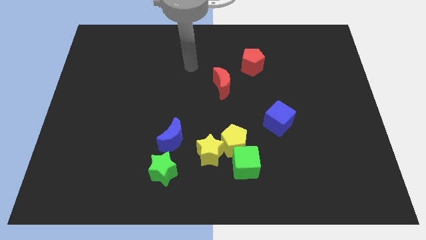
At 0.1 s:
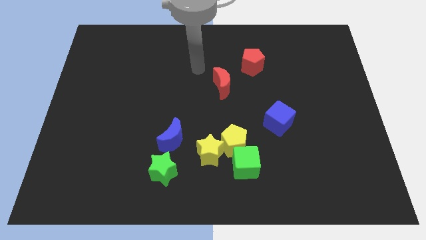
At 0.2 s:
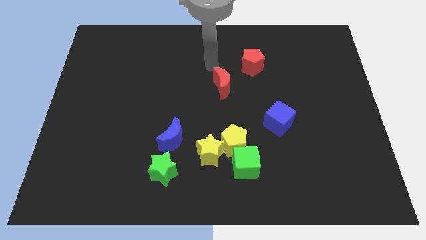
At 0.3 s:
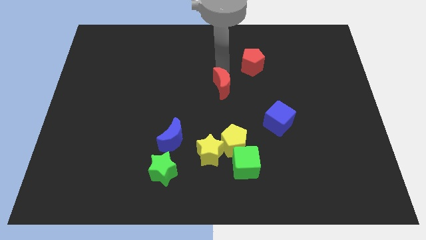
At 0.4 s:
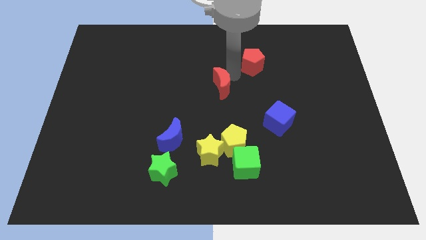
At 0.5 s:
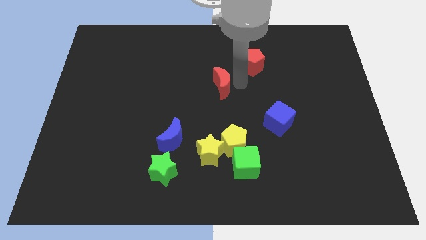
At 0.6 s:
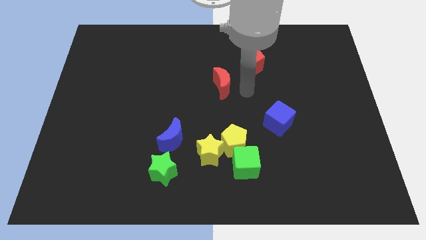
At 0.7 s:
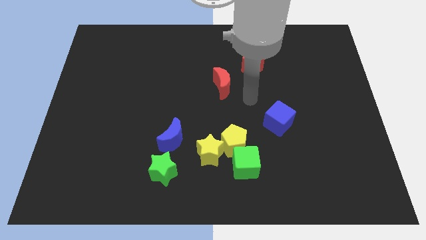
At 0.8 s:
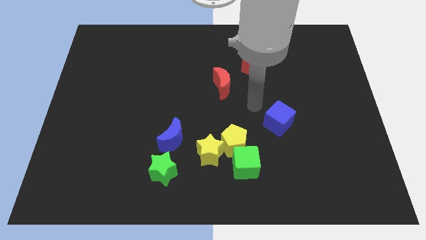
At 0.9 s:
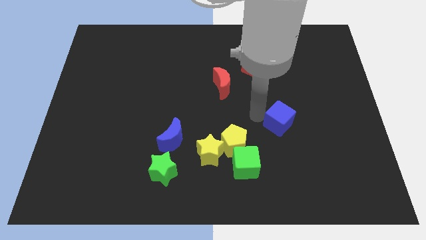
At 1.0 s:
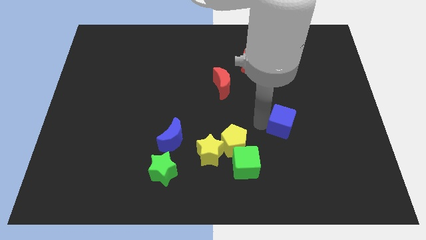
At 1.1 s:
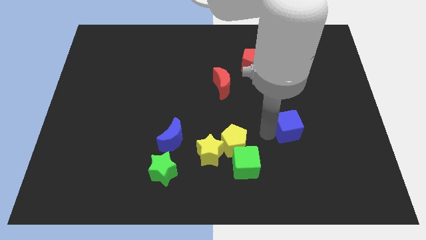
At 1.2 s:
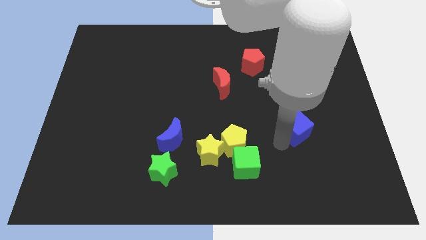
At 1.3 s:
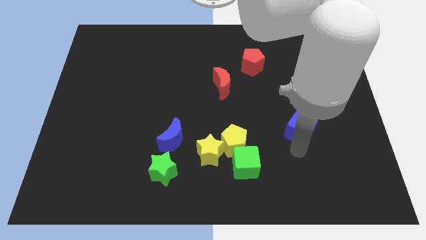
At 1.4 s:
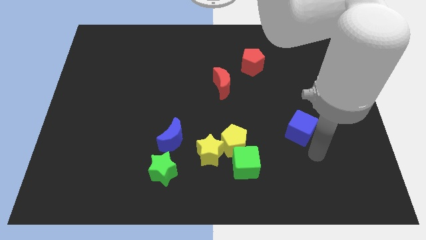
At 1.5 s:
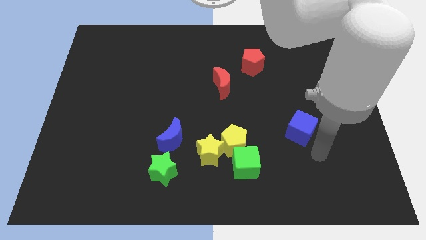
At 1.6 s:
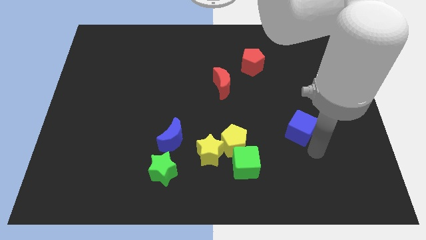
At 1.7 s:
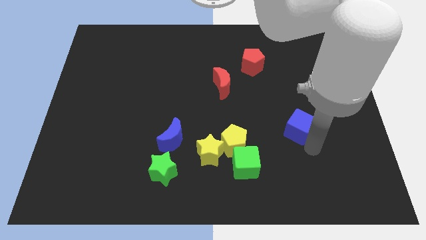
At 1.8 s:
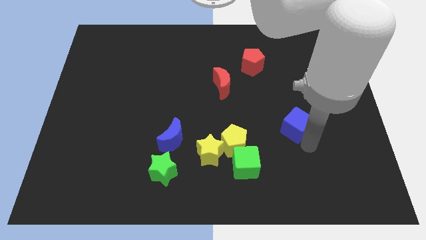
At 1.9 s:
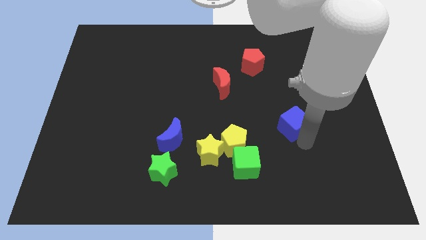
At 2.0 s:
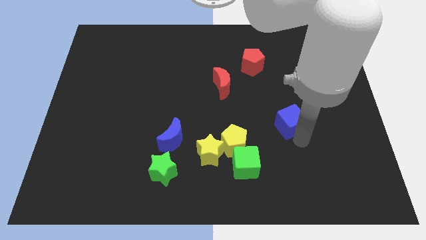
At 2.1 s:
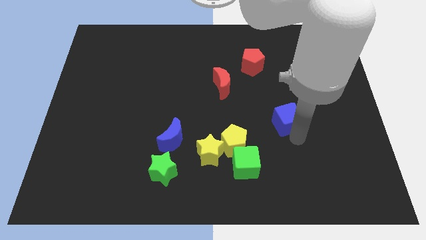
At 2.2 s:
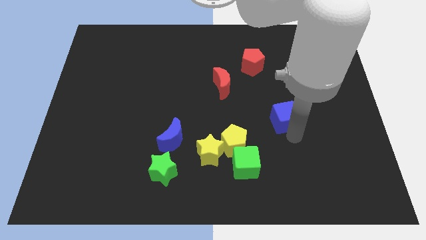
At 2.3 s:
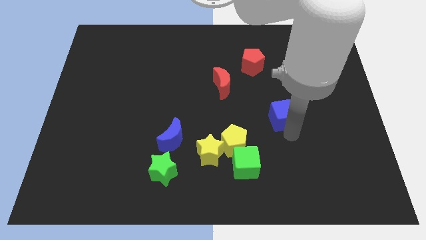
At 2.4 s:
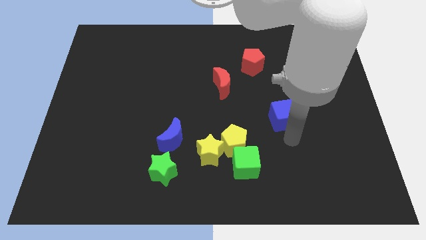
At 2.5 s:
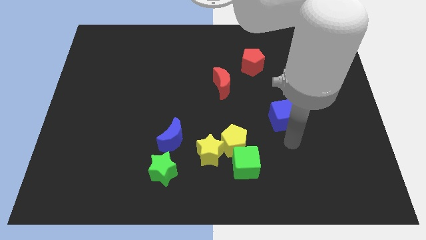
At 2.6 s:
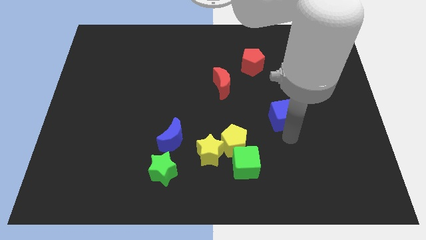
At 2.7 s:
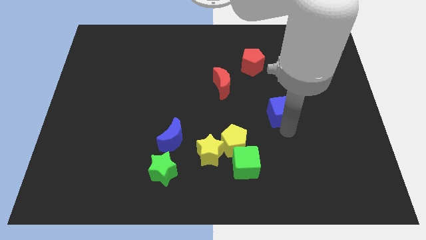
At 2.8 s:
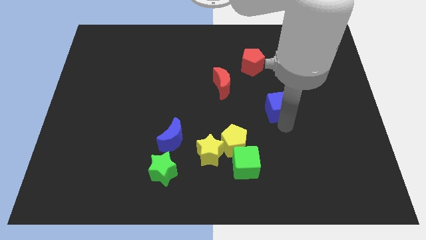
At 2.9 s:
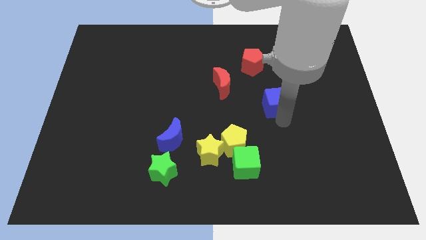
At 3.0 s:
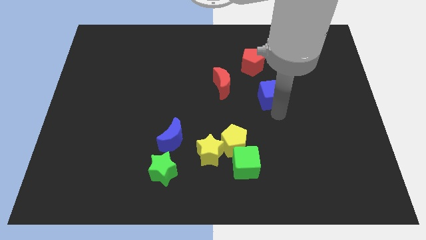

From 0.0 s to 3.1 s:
move the blue cube a little upwards

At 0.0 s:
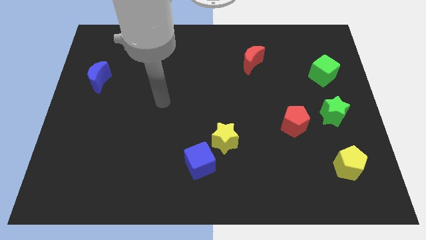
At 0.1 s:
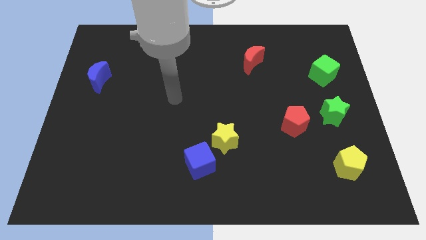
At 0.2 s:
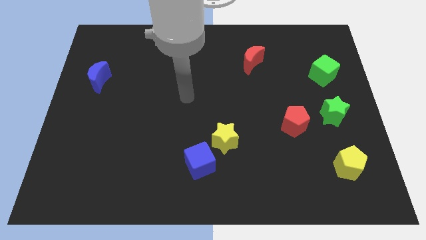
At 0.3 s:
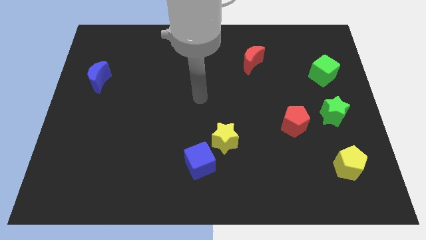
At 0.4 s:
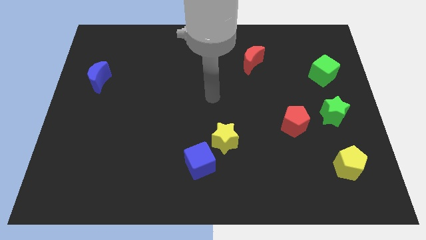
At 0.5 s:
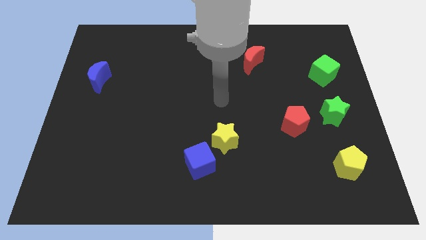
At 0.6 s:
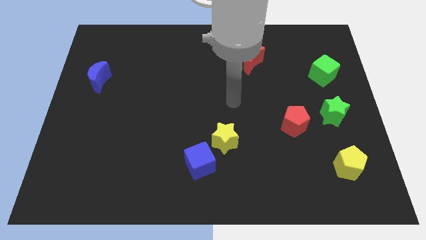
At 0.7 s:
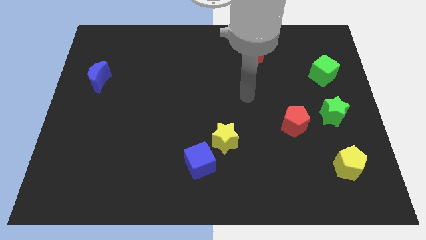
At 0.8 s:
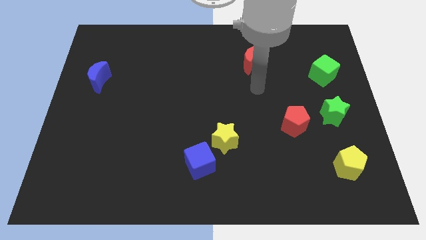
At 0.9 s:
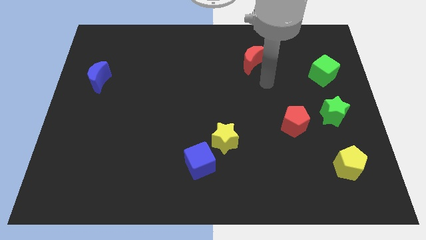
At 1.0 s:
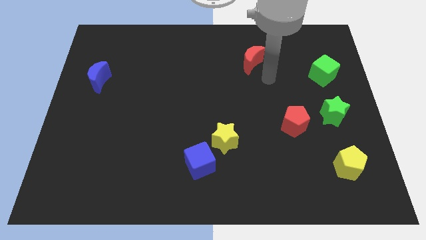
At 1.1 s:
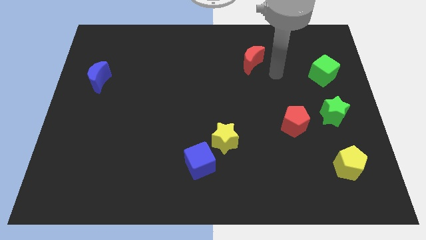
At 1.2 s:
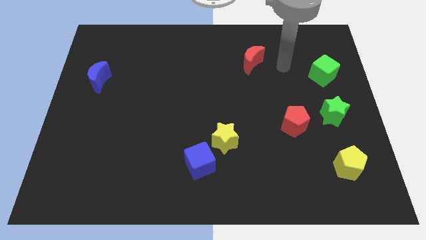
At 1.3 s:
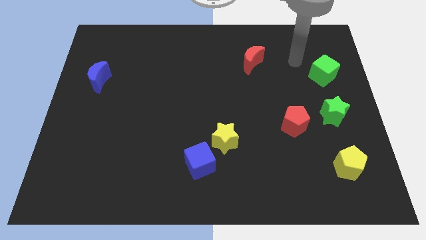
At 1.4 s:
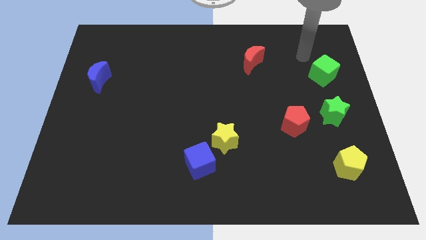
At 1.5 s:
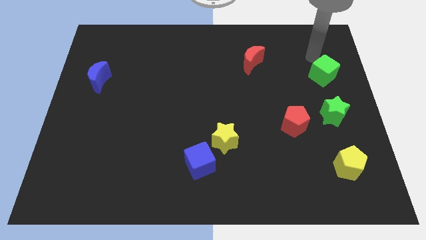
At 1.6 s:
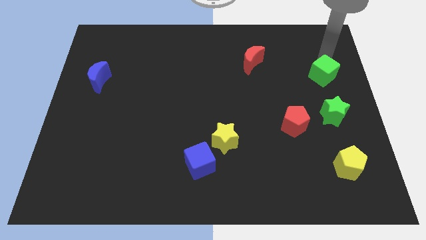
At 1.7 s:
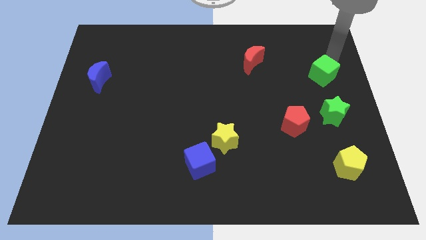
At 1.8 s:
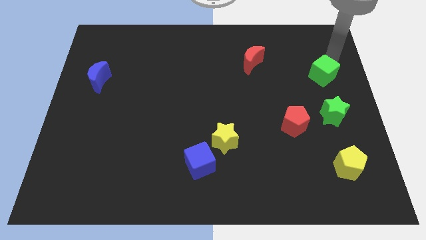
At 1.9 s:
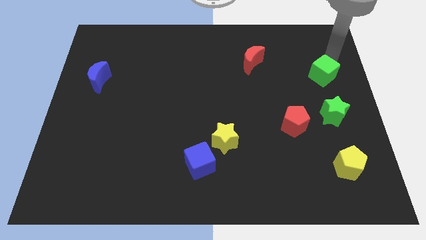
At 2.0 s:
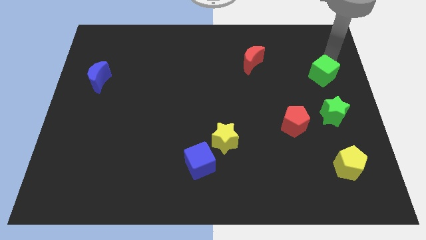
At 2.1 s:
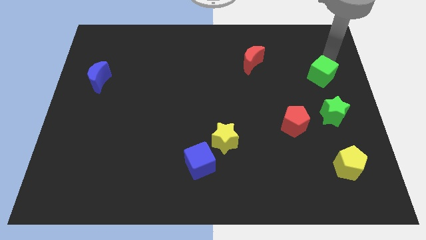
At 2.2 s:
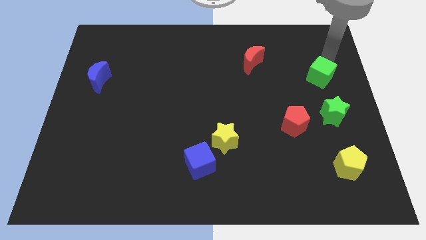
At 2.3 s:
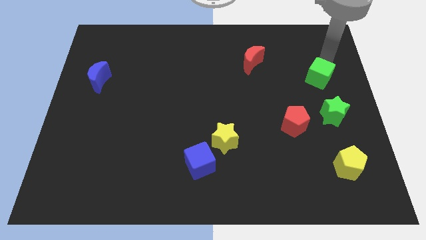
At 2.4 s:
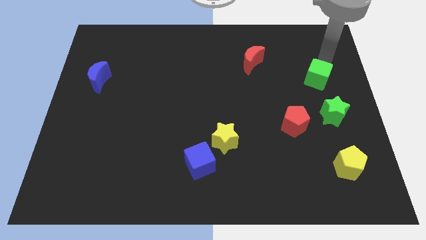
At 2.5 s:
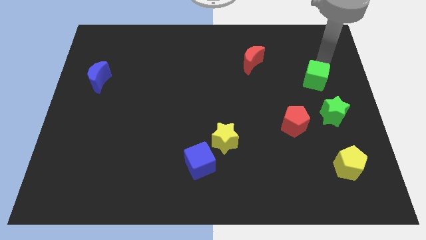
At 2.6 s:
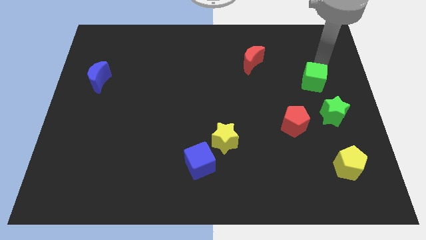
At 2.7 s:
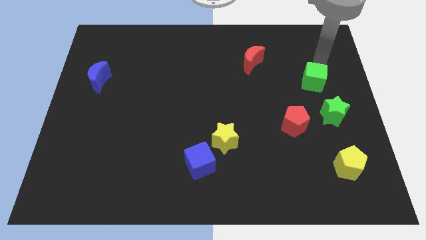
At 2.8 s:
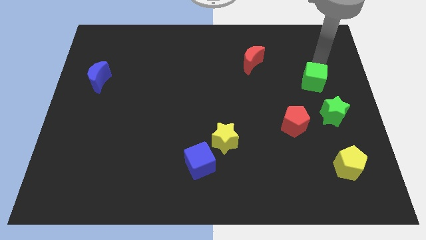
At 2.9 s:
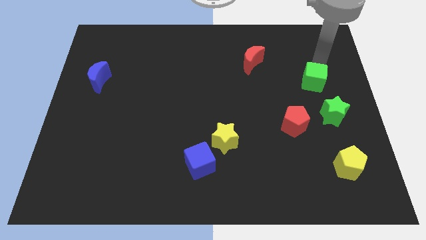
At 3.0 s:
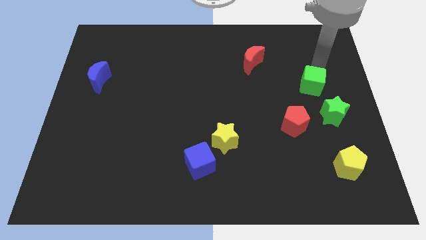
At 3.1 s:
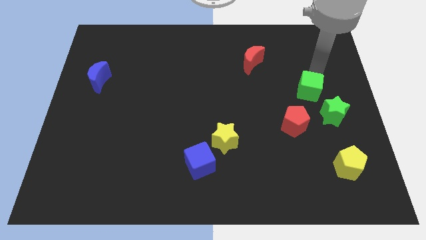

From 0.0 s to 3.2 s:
push the green cube downwards and to the left diagonally somewhat

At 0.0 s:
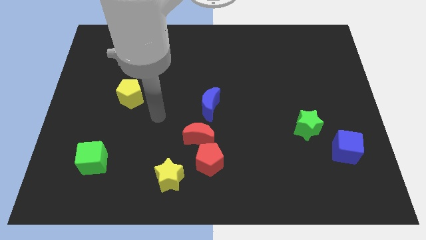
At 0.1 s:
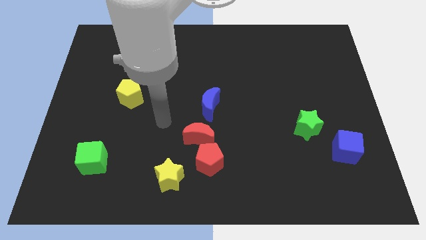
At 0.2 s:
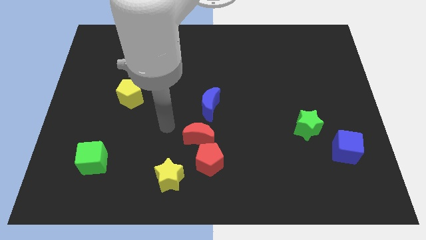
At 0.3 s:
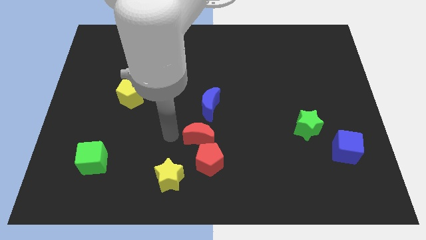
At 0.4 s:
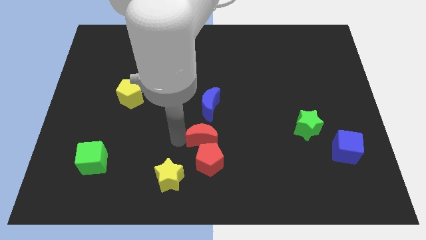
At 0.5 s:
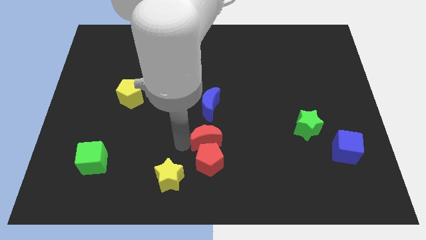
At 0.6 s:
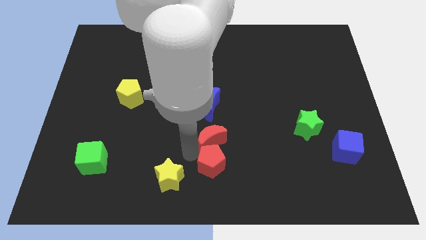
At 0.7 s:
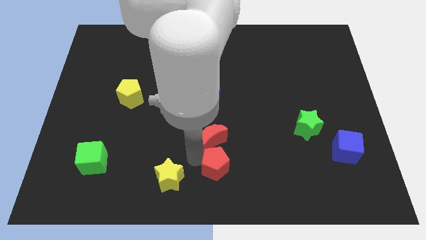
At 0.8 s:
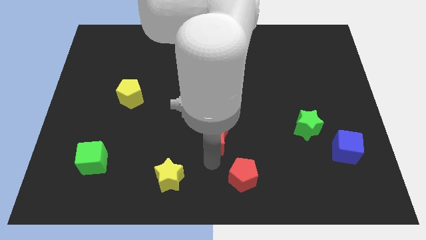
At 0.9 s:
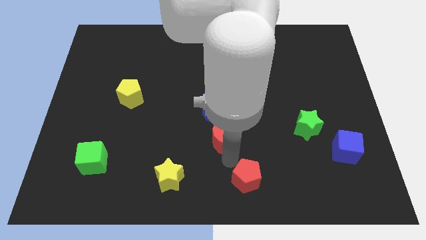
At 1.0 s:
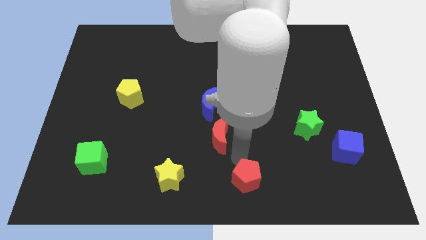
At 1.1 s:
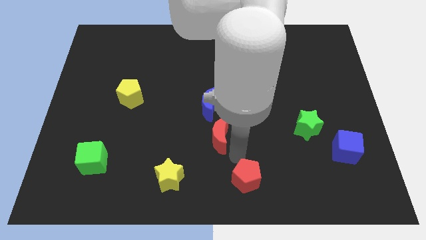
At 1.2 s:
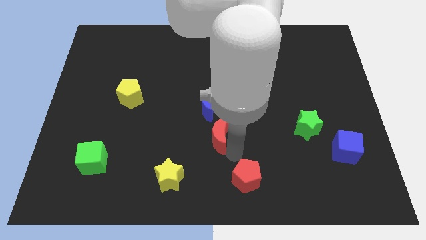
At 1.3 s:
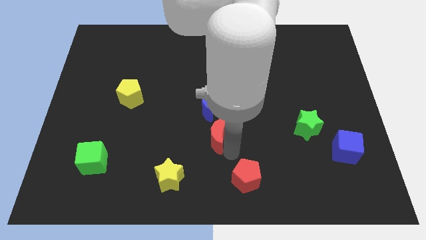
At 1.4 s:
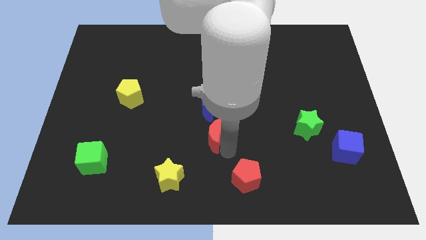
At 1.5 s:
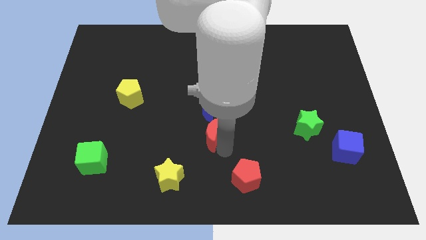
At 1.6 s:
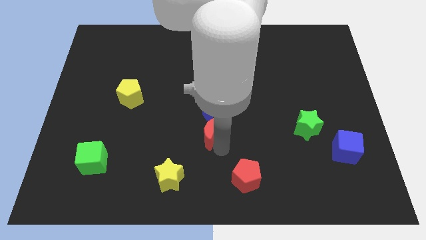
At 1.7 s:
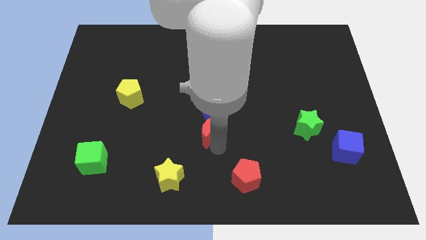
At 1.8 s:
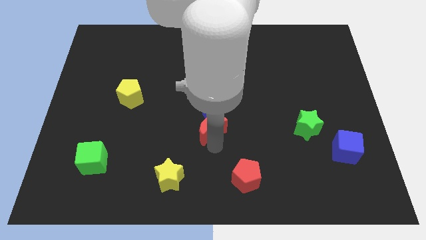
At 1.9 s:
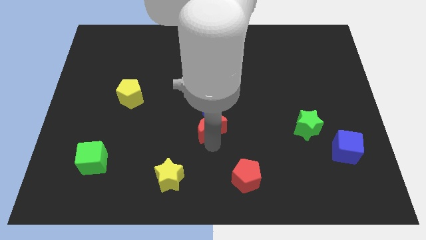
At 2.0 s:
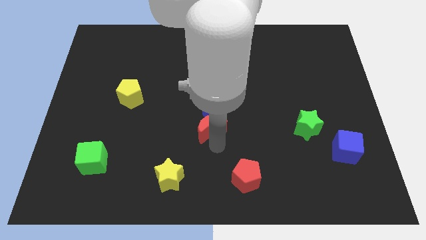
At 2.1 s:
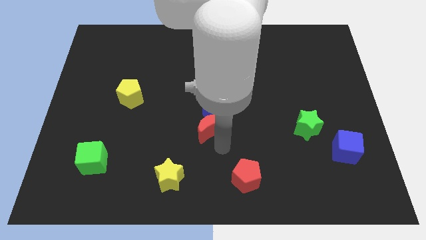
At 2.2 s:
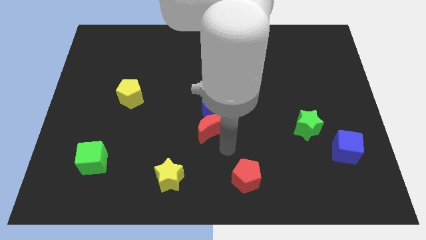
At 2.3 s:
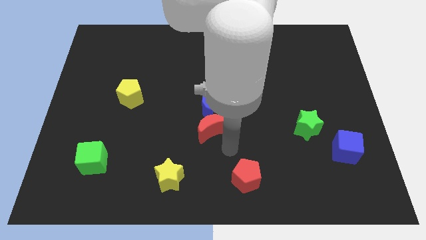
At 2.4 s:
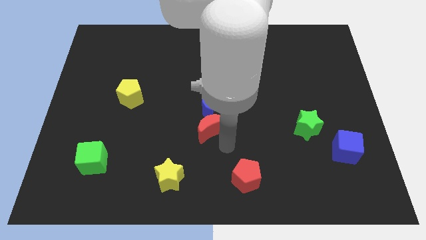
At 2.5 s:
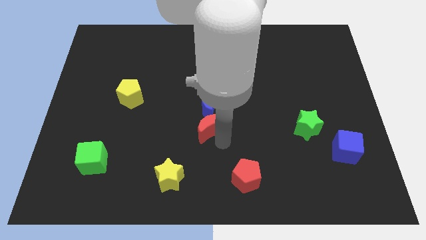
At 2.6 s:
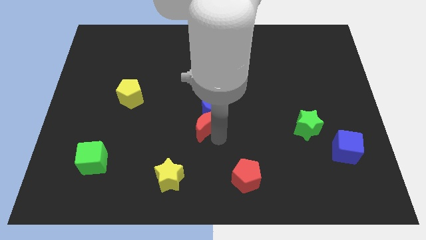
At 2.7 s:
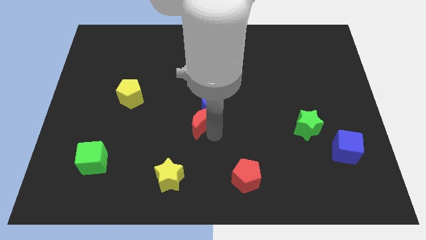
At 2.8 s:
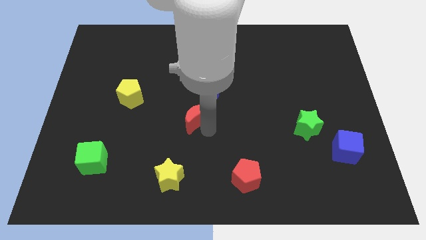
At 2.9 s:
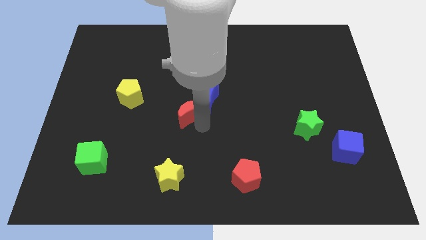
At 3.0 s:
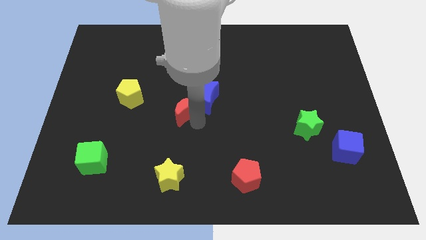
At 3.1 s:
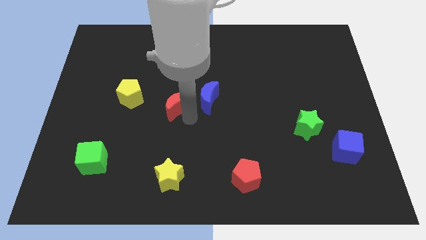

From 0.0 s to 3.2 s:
move the red moon upwards somewhat
